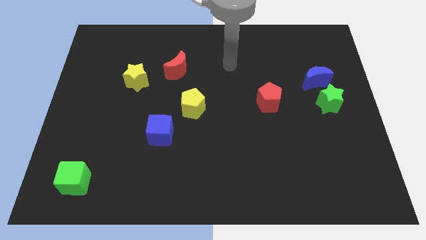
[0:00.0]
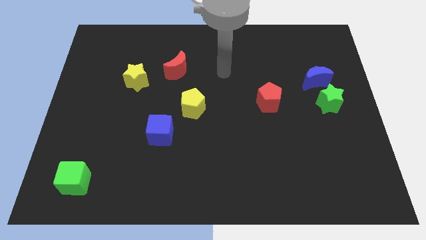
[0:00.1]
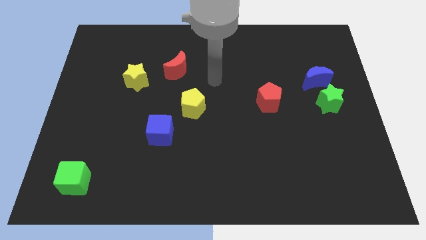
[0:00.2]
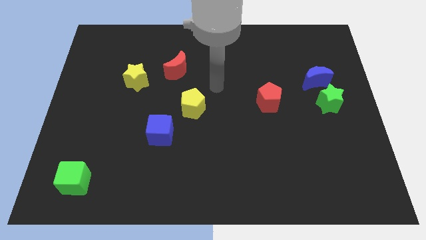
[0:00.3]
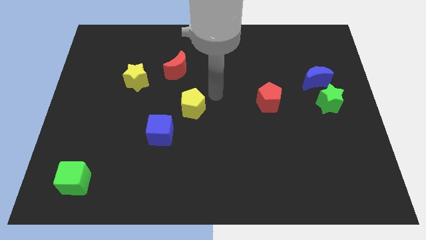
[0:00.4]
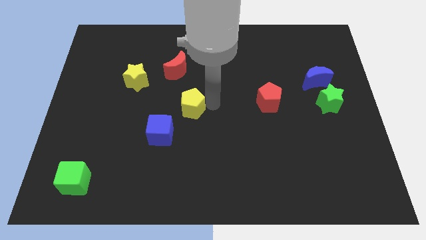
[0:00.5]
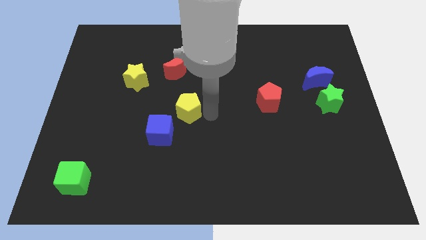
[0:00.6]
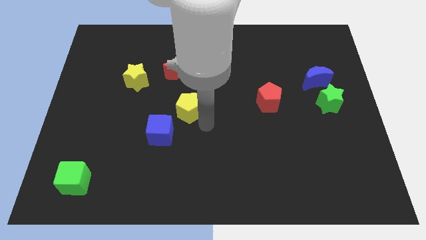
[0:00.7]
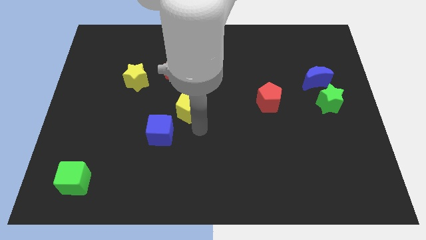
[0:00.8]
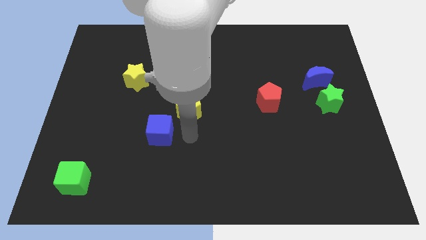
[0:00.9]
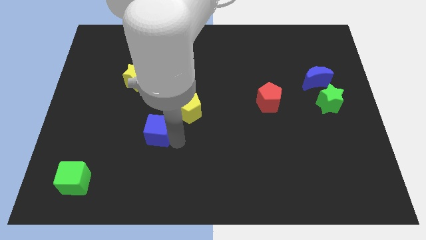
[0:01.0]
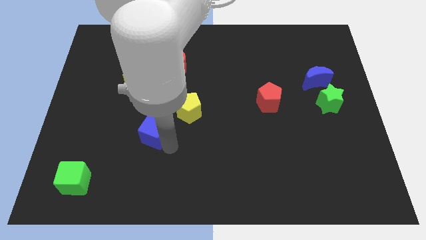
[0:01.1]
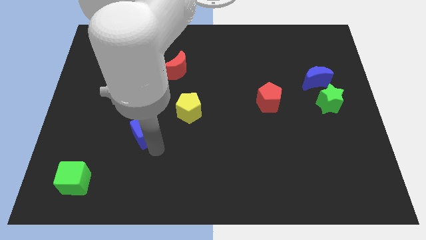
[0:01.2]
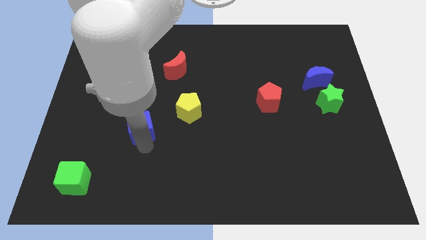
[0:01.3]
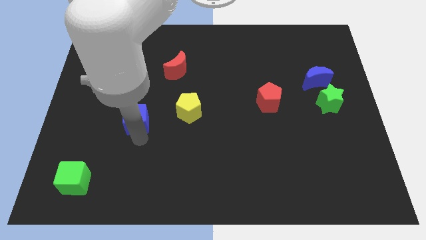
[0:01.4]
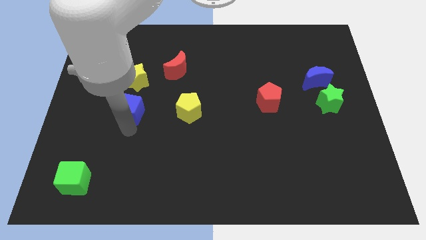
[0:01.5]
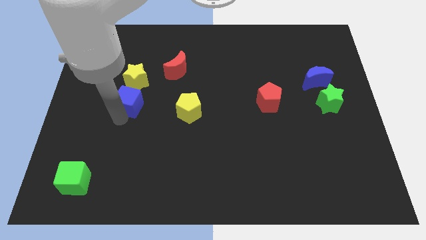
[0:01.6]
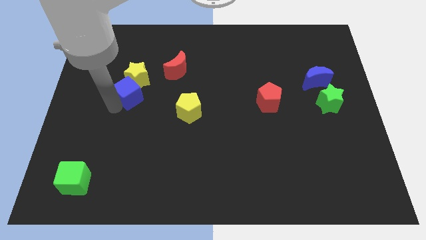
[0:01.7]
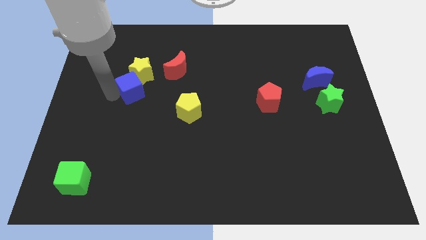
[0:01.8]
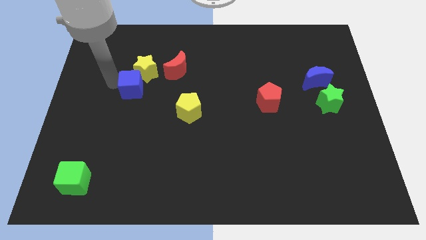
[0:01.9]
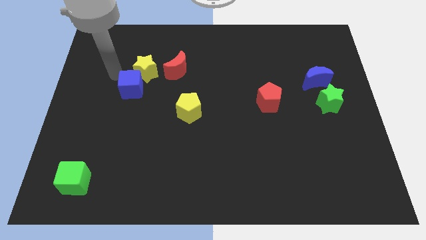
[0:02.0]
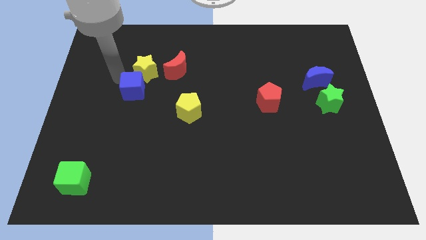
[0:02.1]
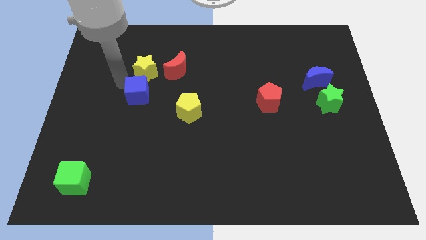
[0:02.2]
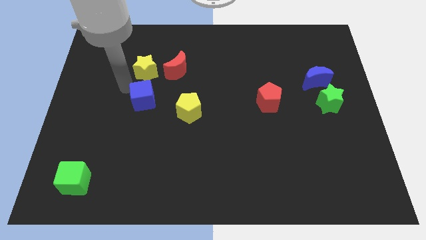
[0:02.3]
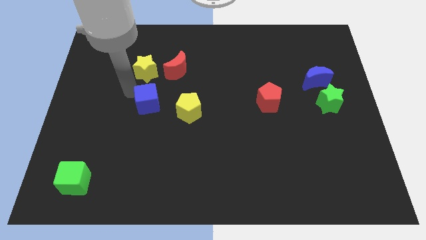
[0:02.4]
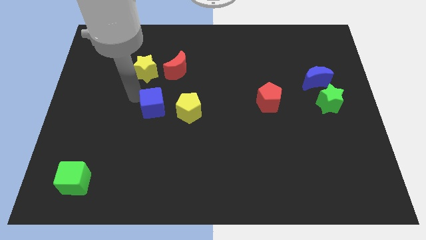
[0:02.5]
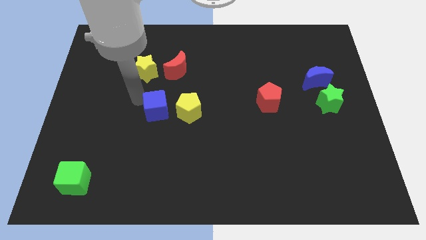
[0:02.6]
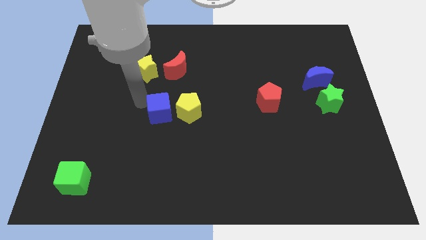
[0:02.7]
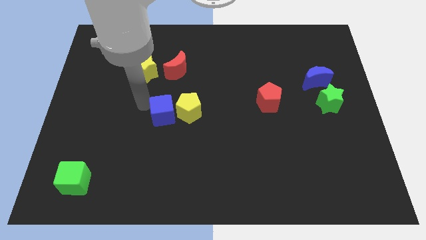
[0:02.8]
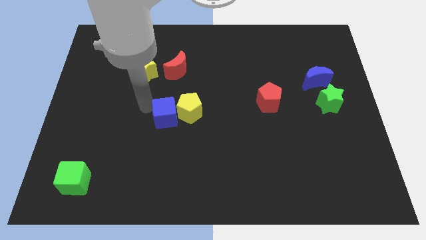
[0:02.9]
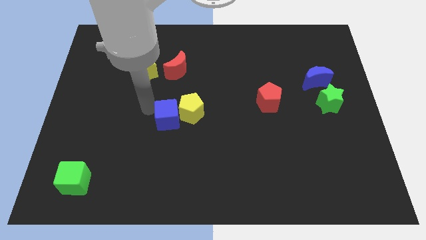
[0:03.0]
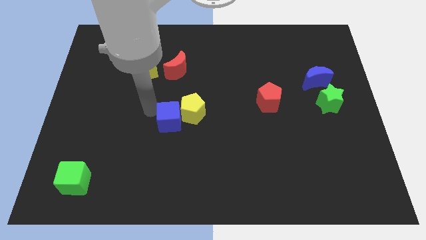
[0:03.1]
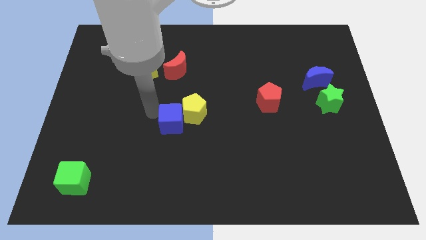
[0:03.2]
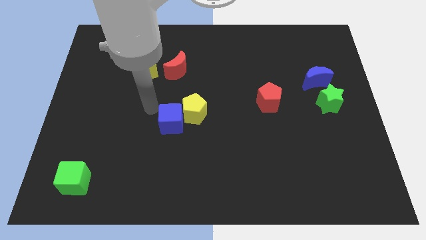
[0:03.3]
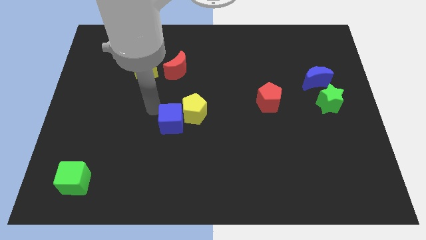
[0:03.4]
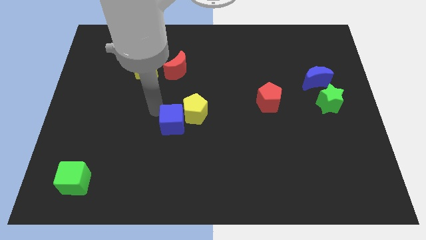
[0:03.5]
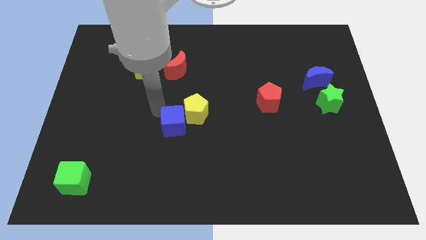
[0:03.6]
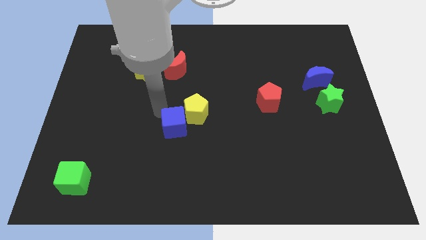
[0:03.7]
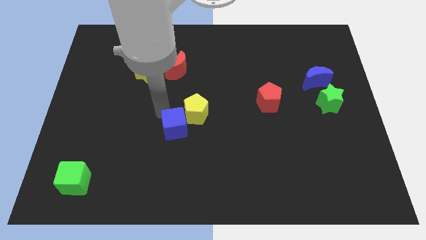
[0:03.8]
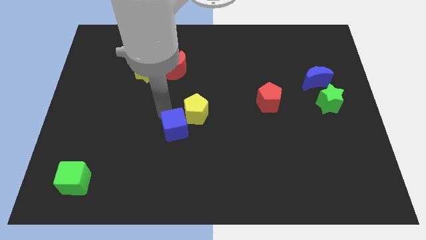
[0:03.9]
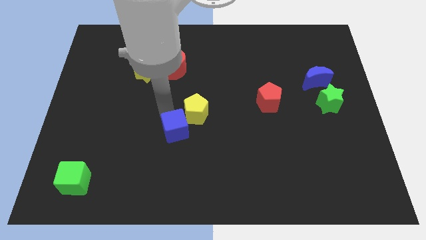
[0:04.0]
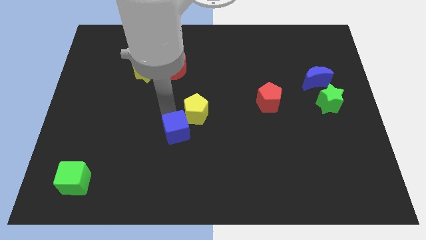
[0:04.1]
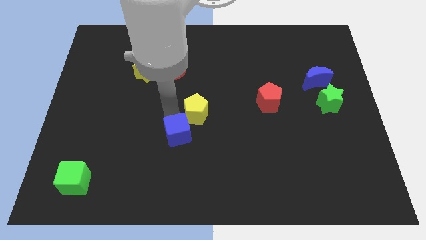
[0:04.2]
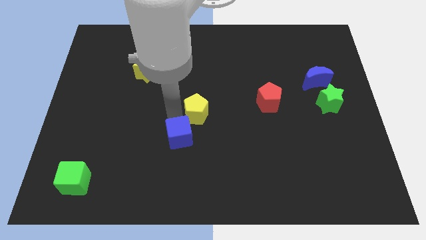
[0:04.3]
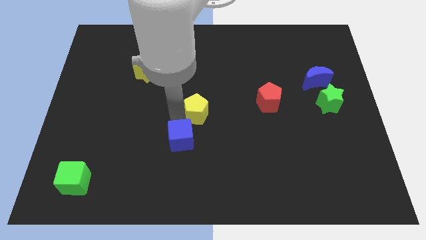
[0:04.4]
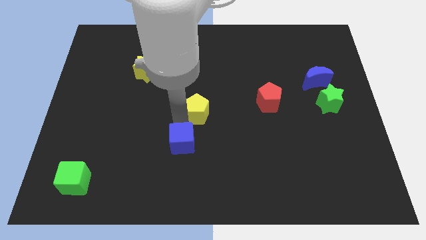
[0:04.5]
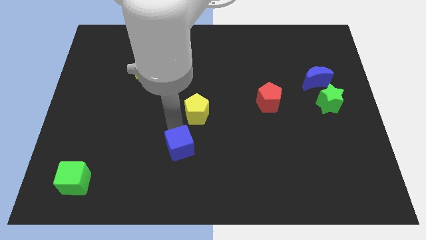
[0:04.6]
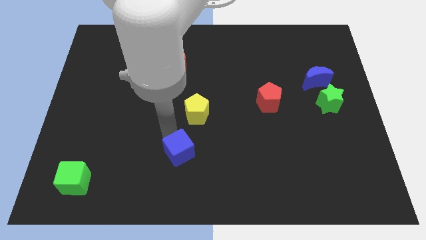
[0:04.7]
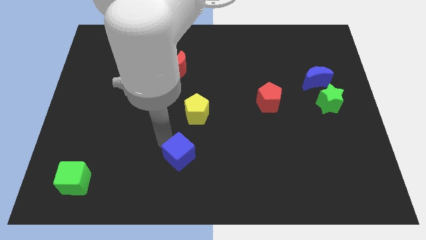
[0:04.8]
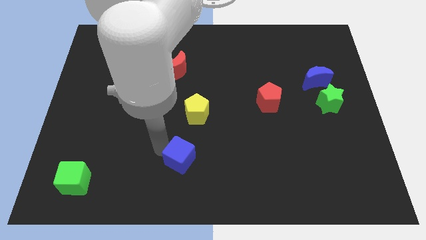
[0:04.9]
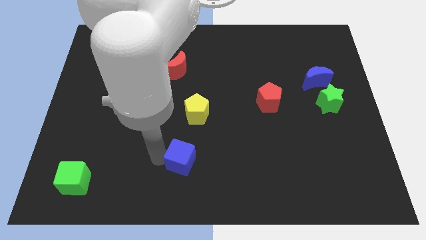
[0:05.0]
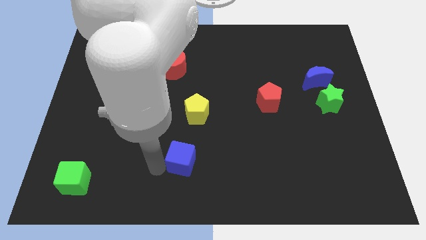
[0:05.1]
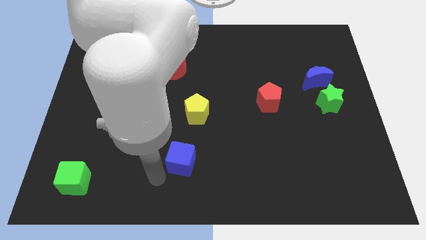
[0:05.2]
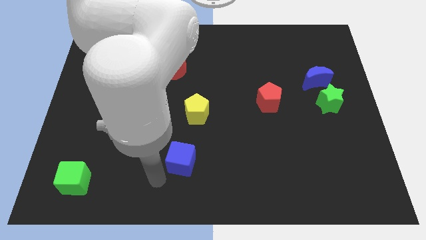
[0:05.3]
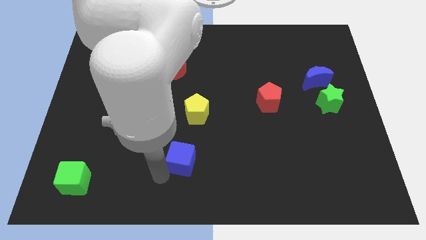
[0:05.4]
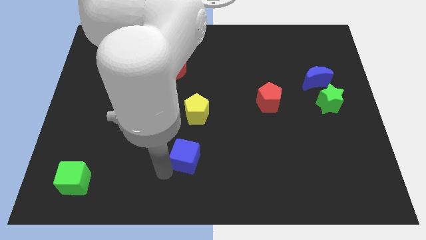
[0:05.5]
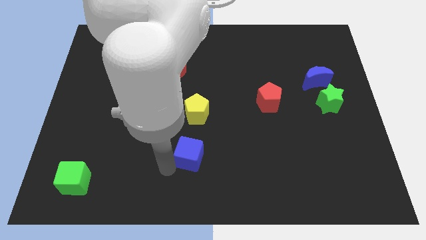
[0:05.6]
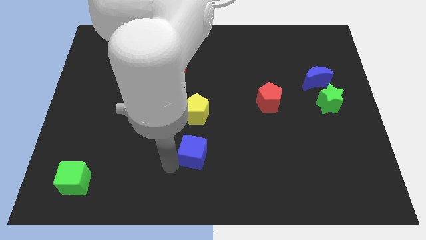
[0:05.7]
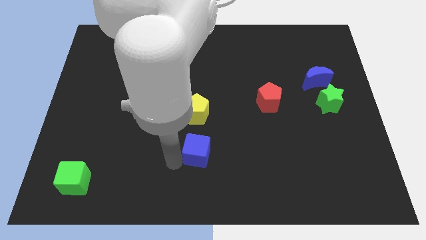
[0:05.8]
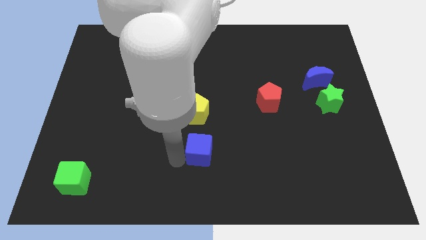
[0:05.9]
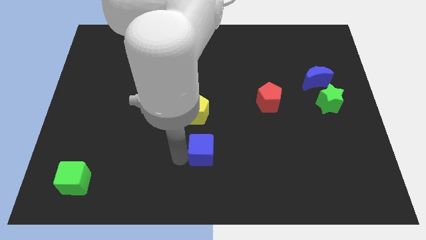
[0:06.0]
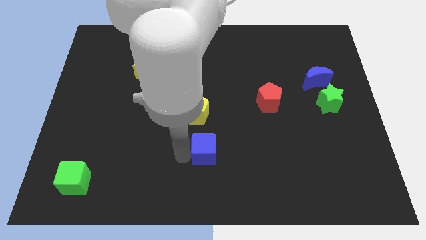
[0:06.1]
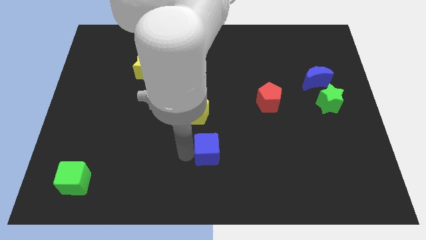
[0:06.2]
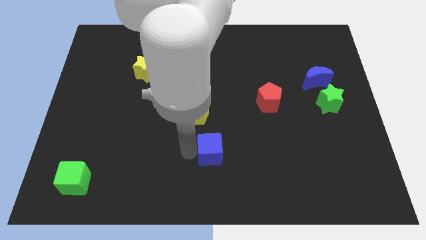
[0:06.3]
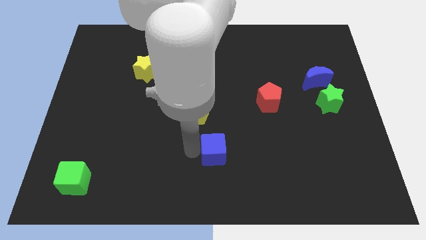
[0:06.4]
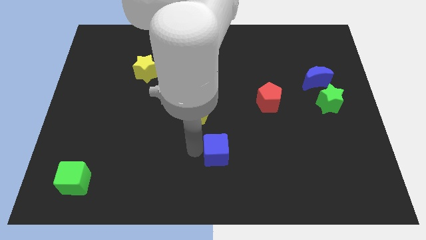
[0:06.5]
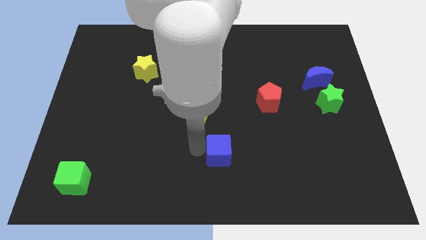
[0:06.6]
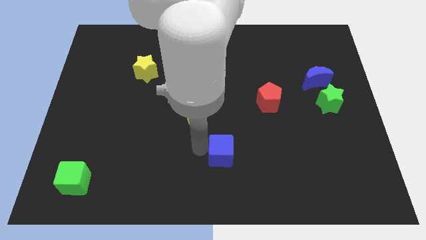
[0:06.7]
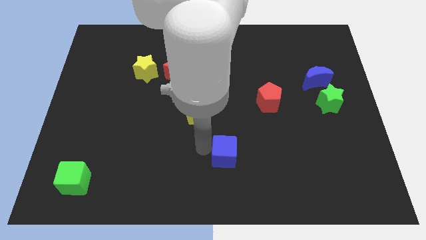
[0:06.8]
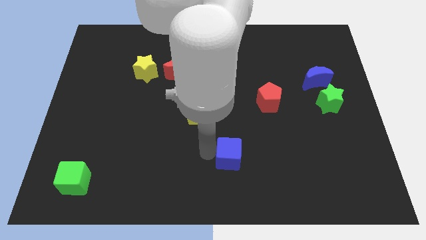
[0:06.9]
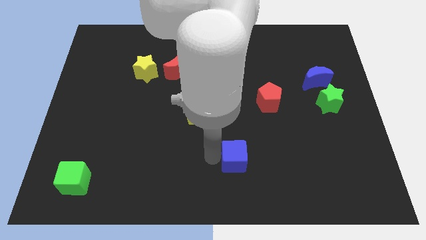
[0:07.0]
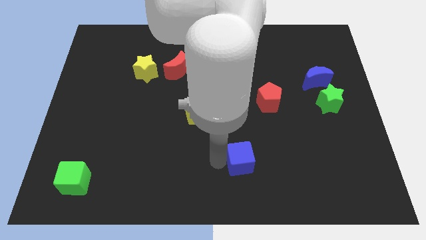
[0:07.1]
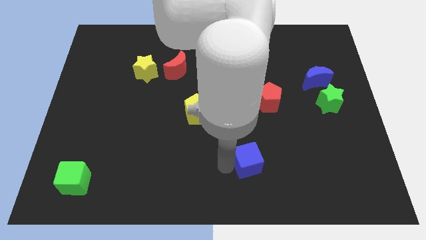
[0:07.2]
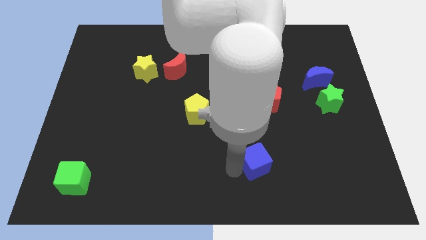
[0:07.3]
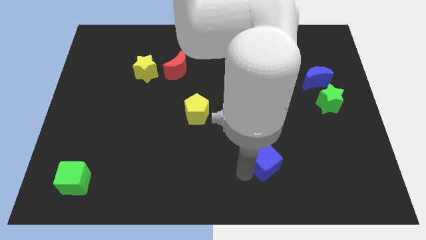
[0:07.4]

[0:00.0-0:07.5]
push the blue cube right

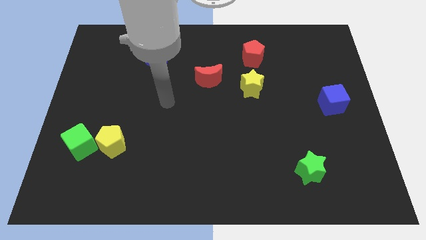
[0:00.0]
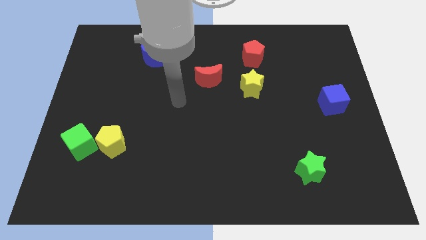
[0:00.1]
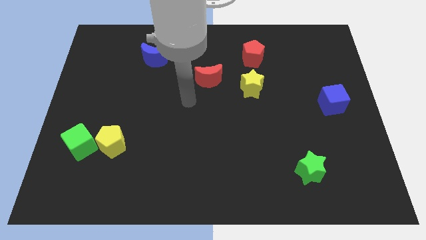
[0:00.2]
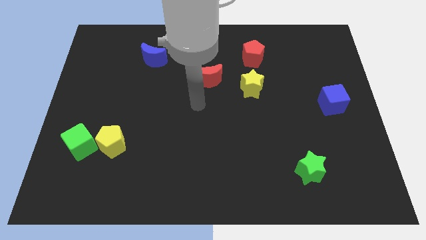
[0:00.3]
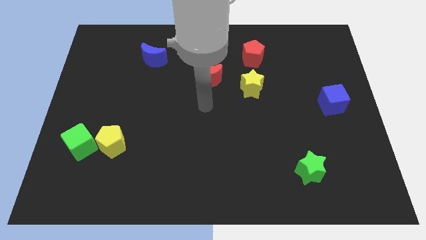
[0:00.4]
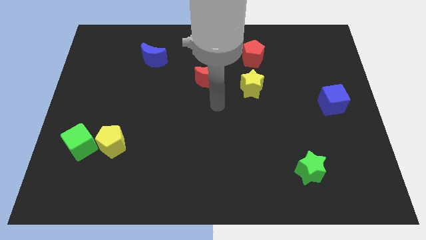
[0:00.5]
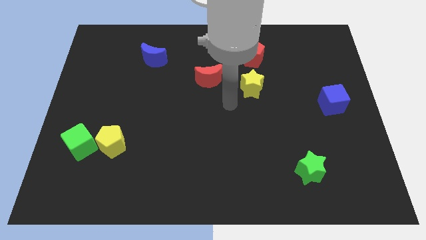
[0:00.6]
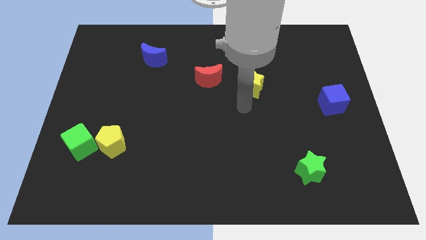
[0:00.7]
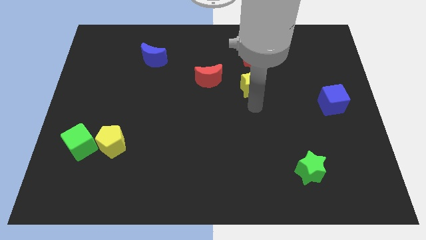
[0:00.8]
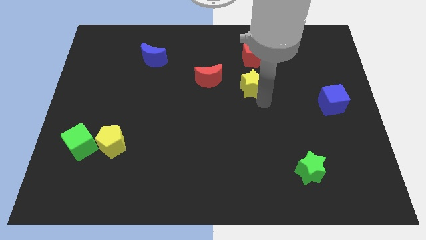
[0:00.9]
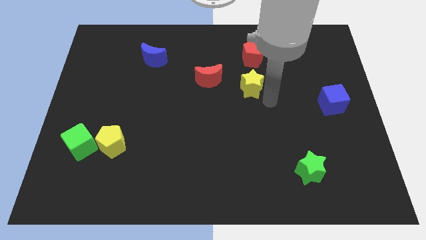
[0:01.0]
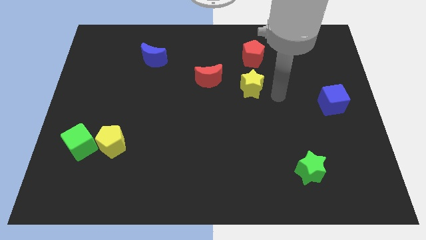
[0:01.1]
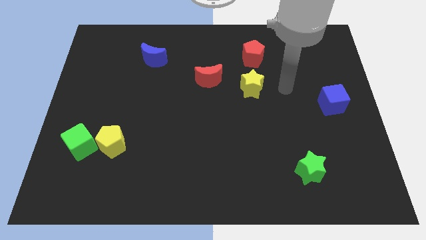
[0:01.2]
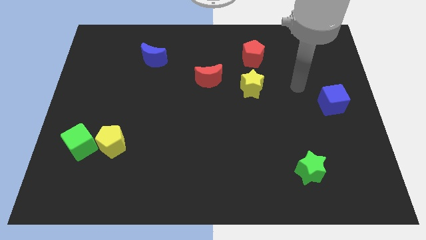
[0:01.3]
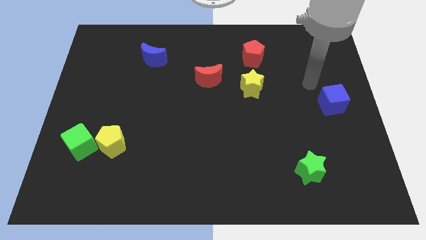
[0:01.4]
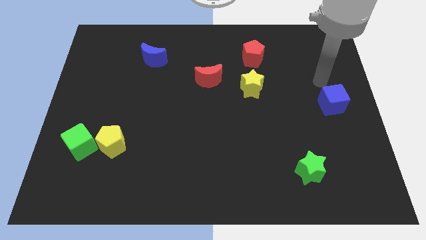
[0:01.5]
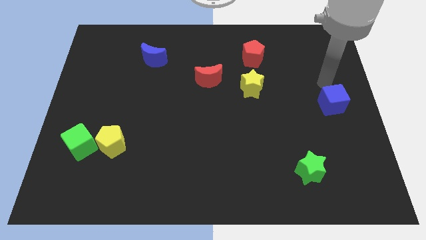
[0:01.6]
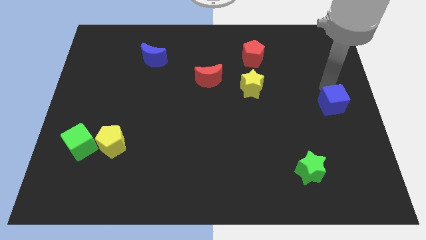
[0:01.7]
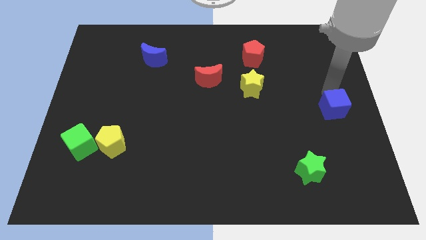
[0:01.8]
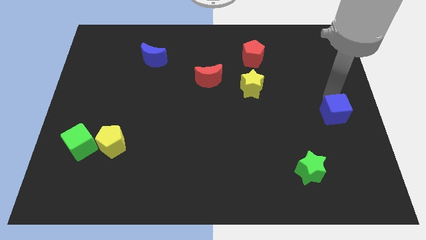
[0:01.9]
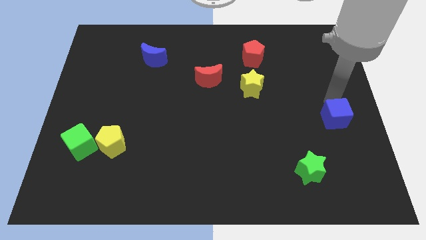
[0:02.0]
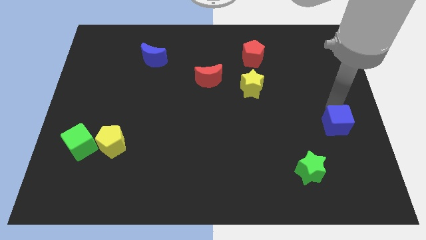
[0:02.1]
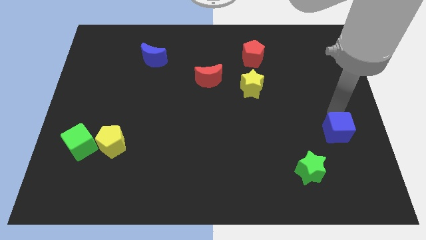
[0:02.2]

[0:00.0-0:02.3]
slide the blue cube a little bit down
